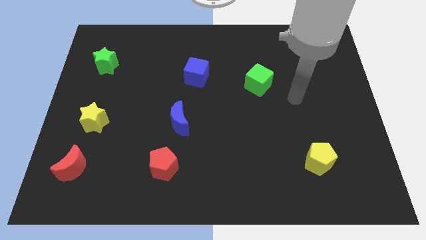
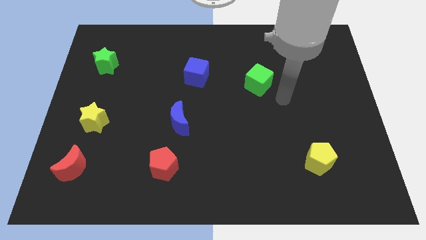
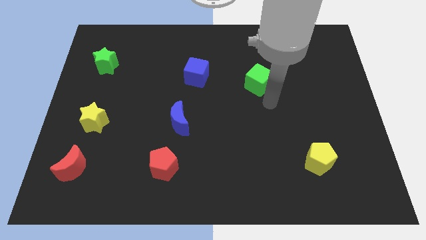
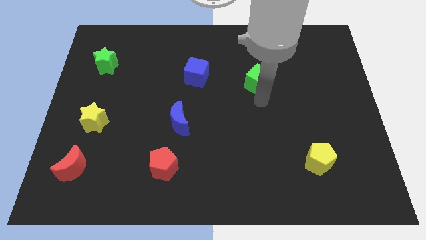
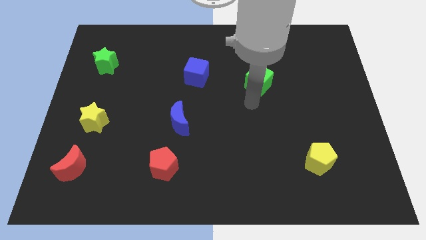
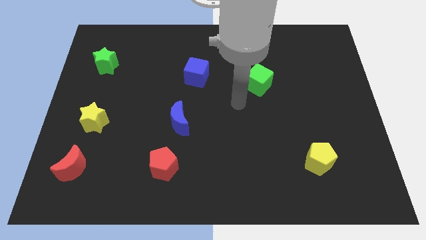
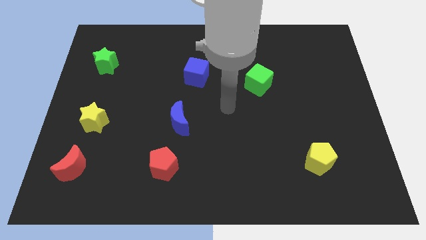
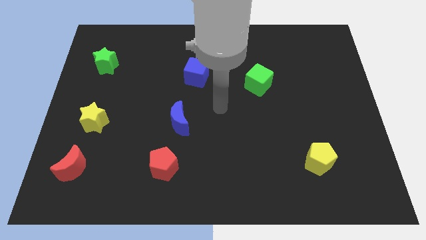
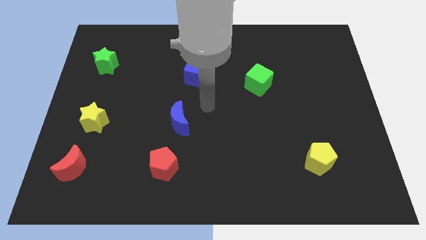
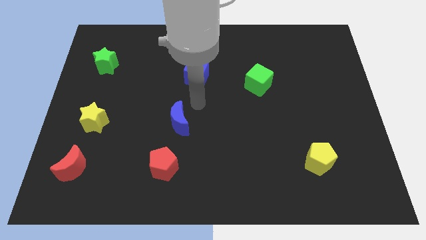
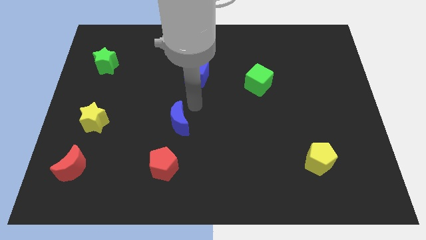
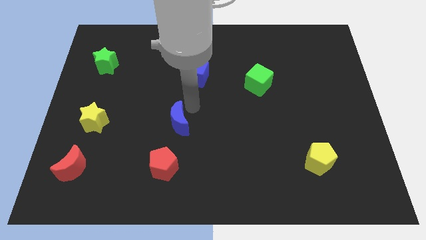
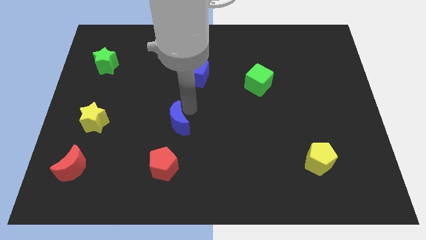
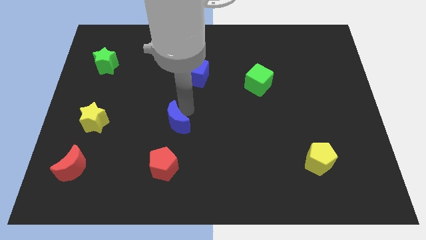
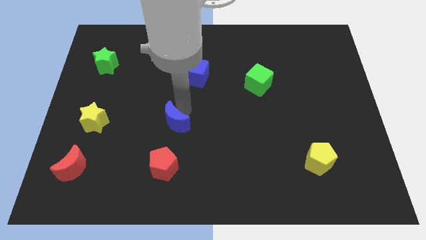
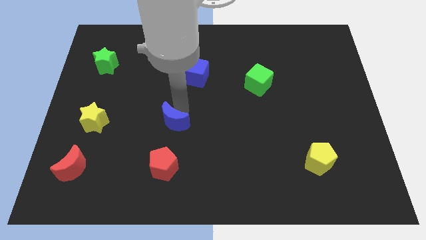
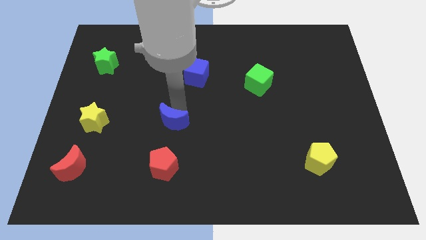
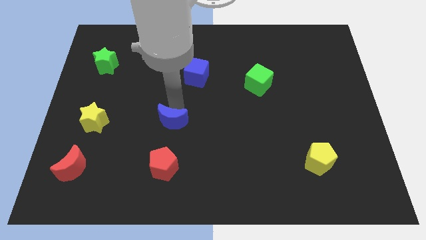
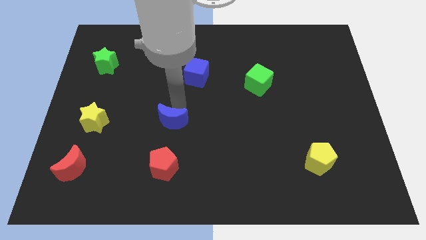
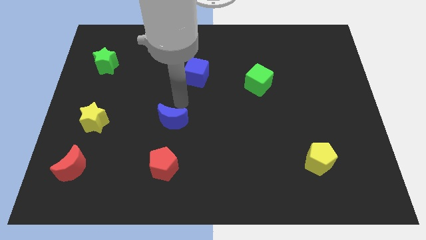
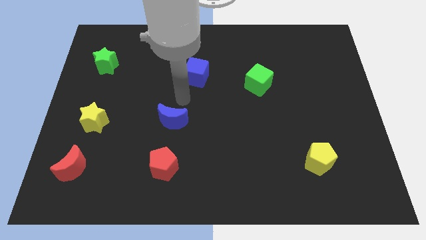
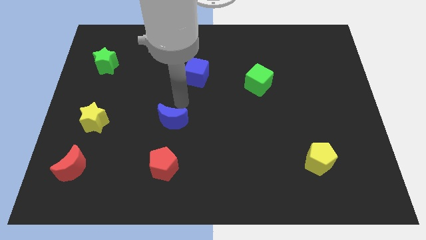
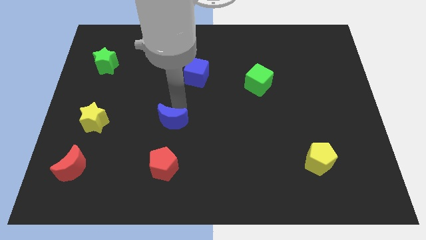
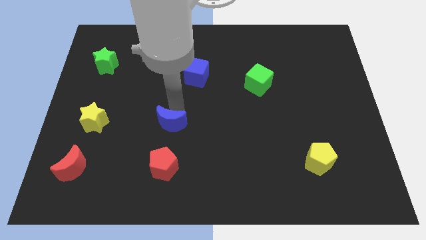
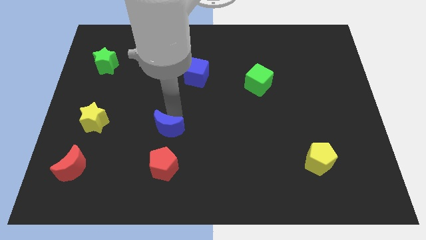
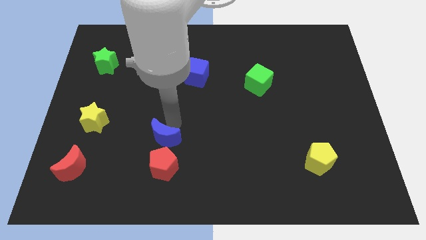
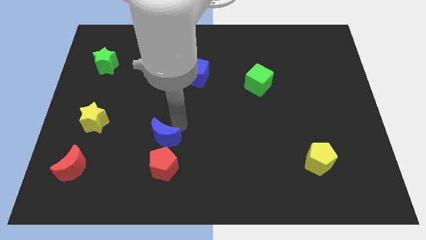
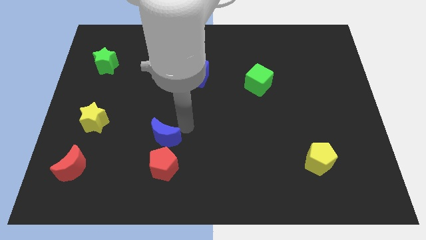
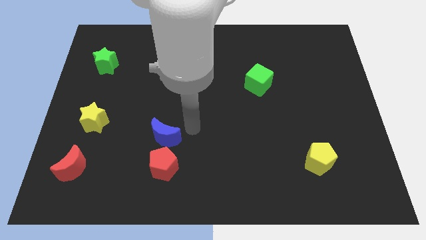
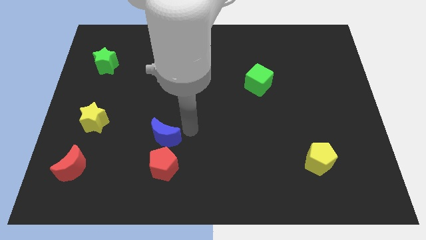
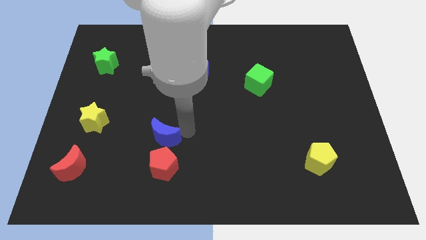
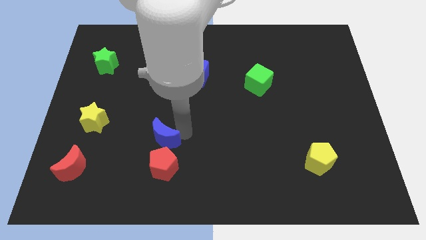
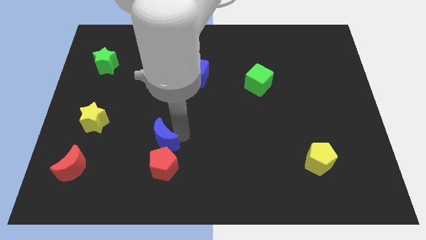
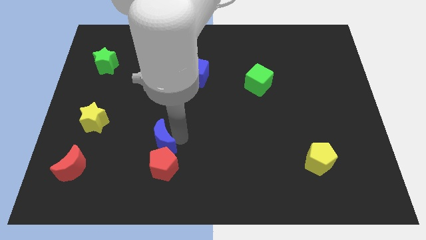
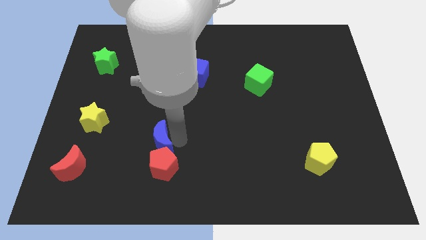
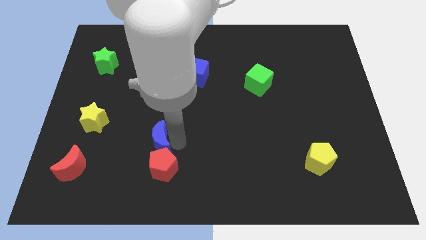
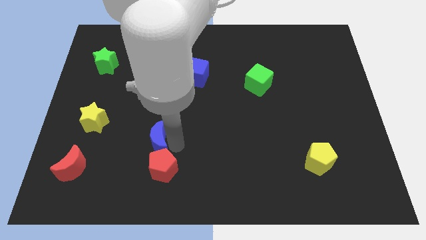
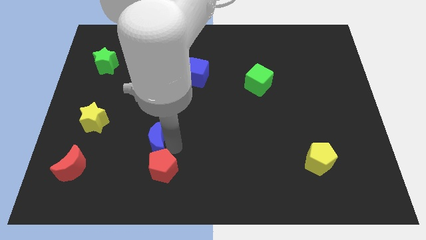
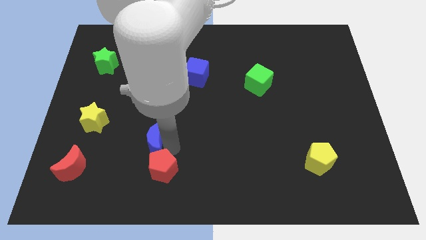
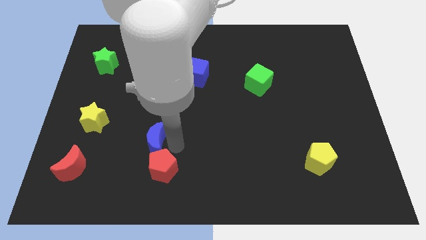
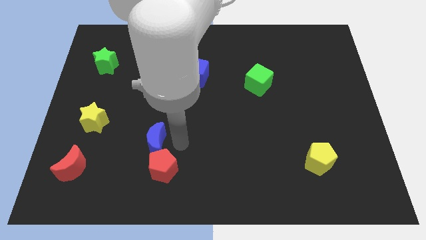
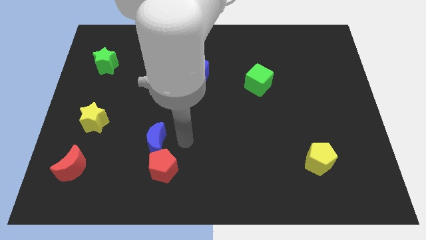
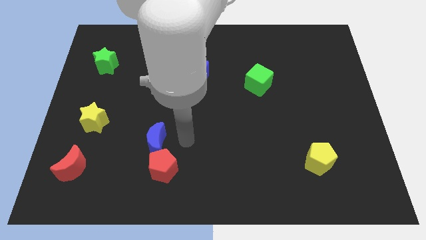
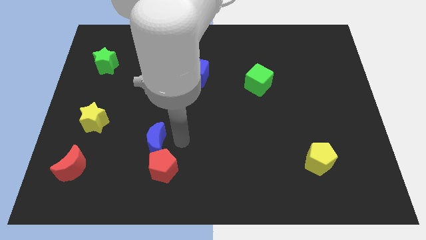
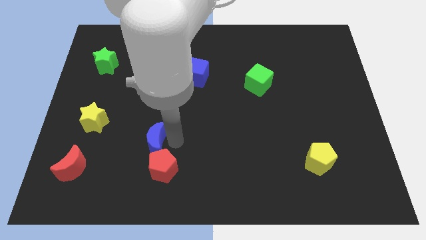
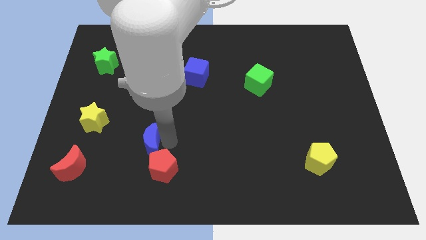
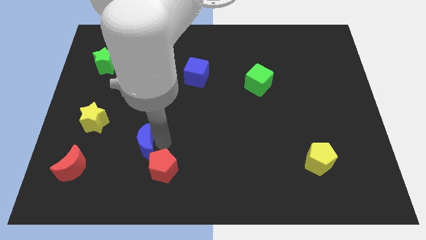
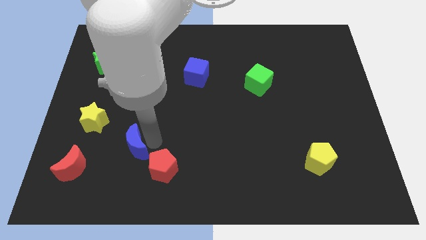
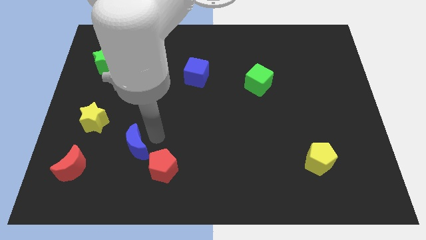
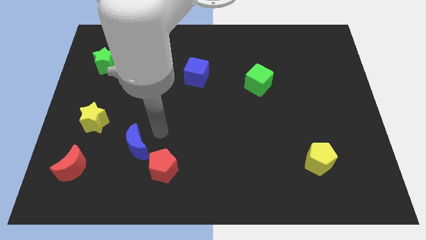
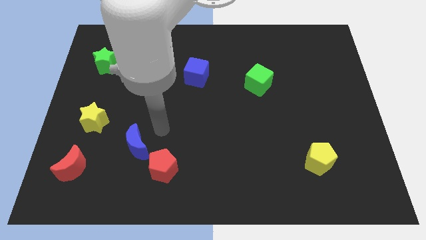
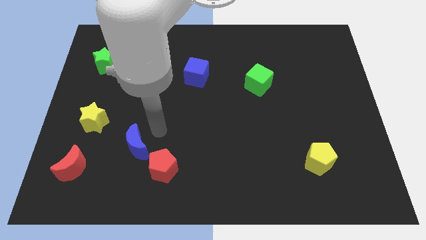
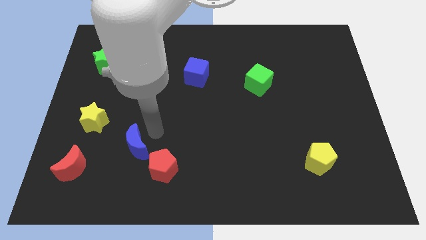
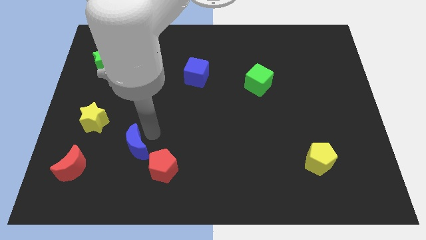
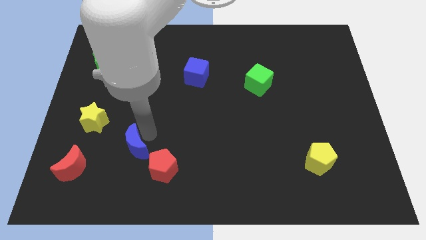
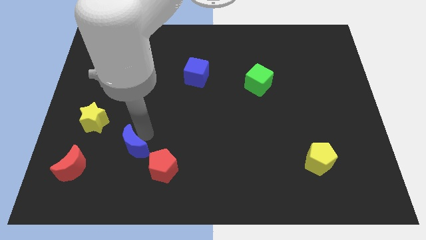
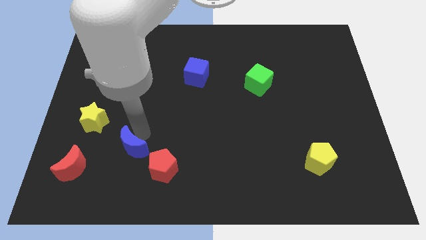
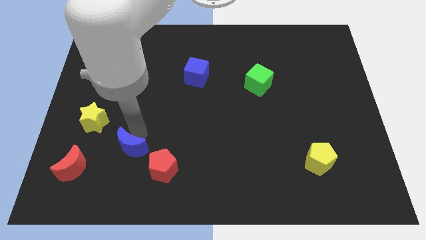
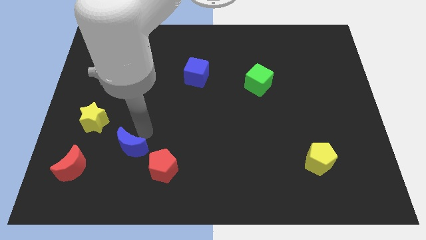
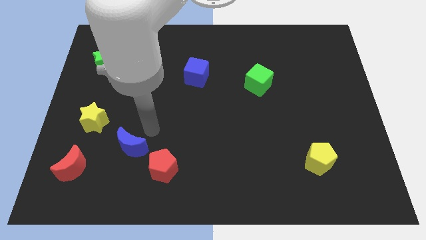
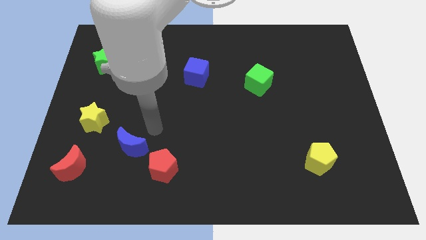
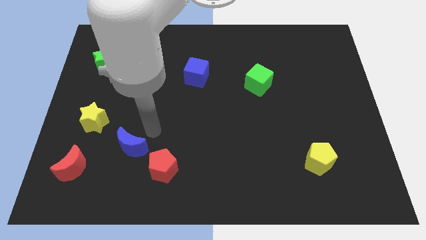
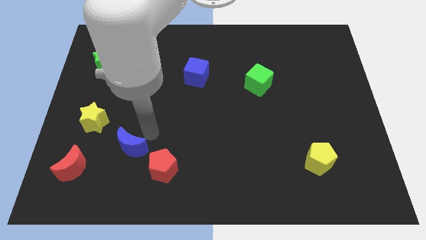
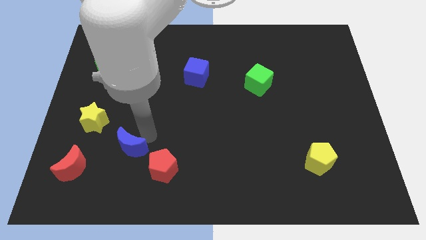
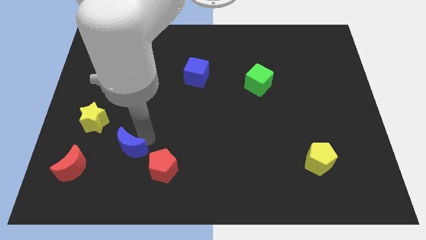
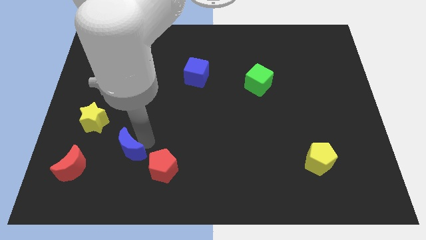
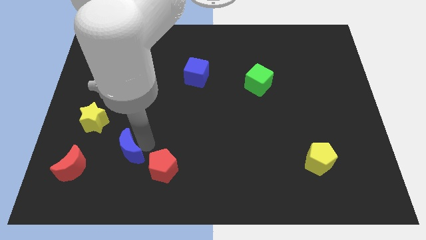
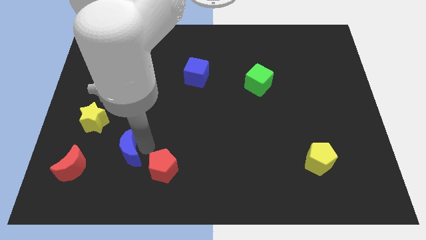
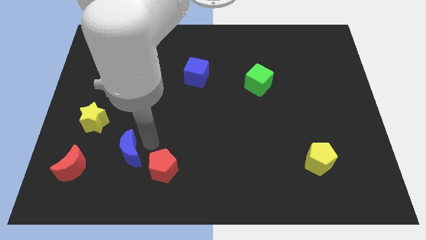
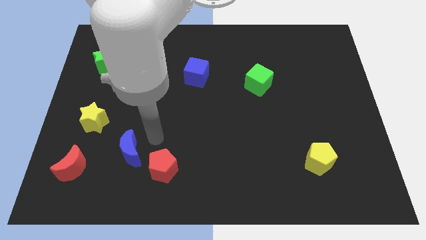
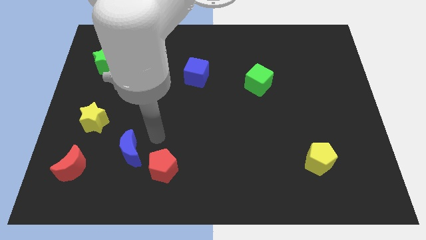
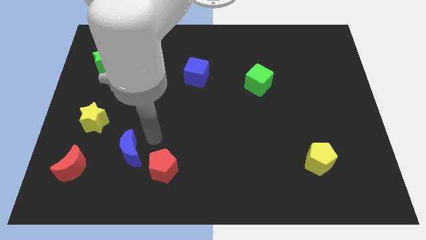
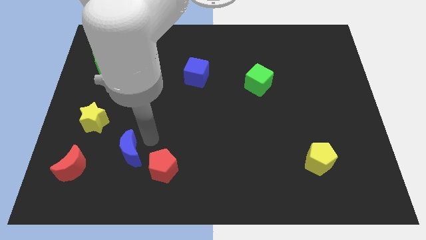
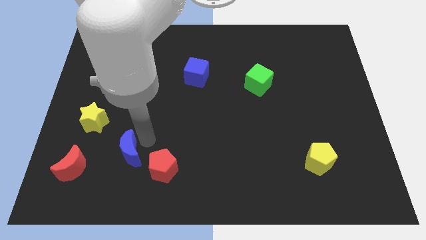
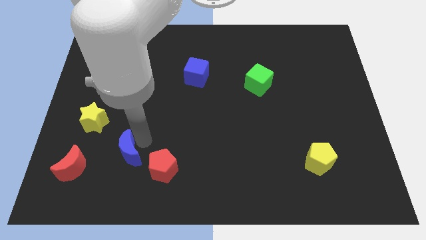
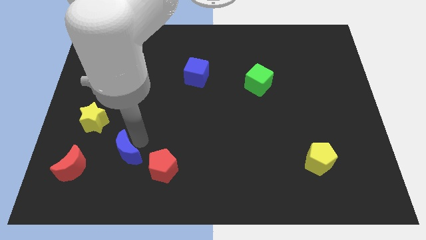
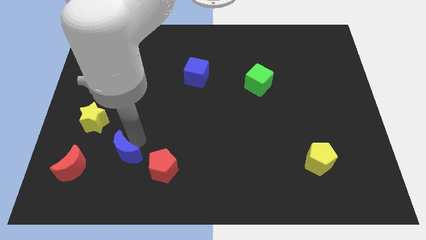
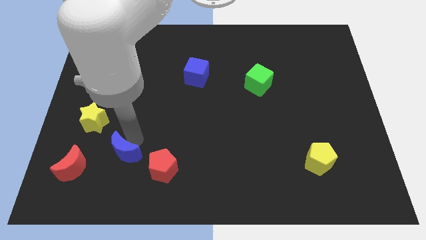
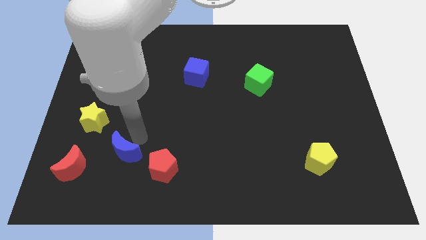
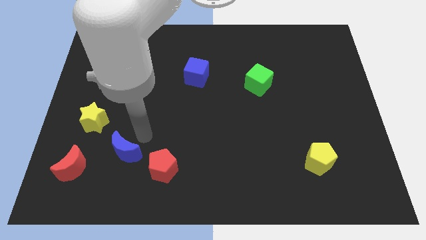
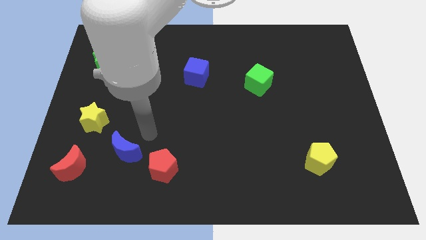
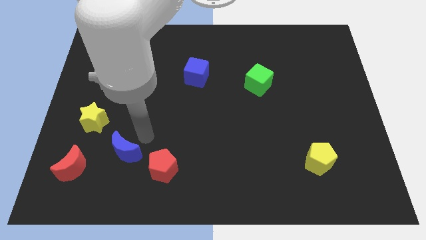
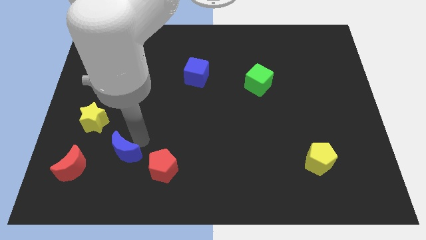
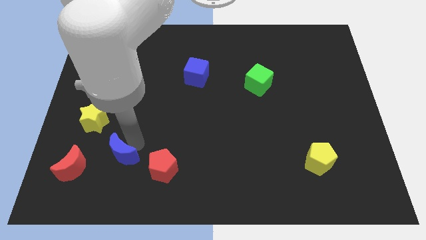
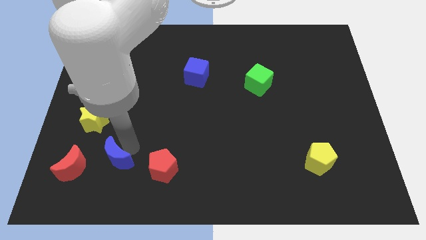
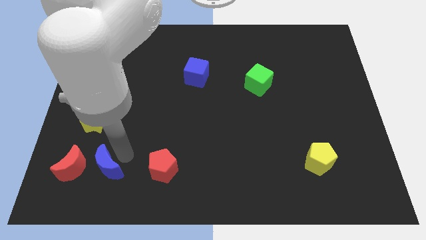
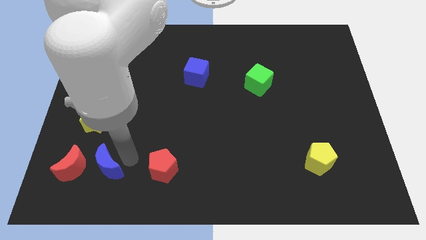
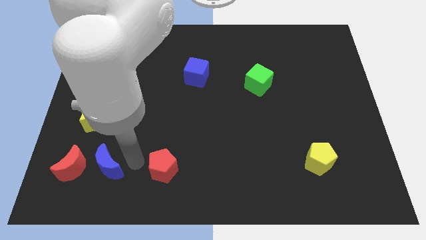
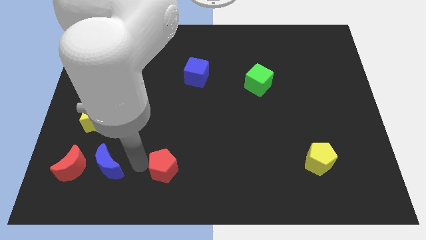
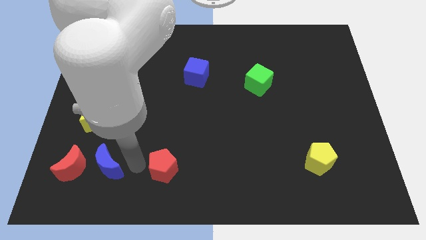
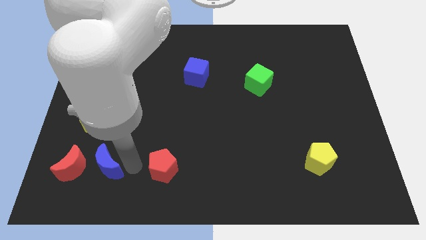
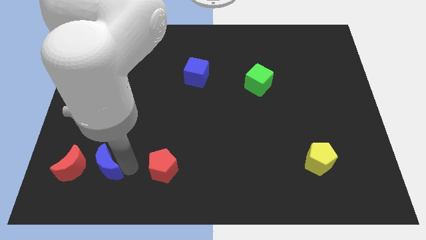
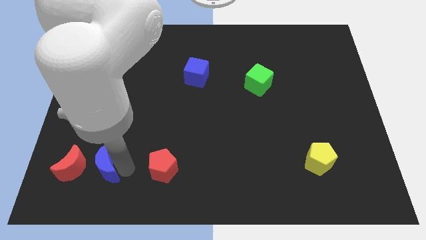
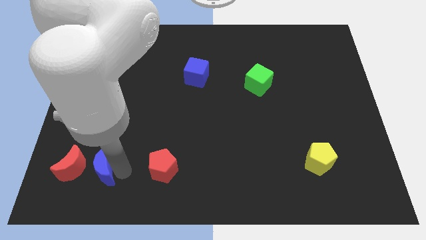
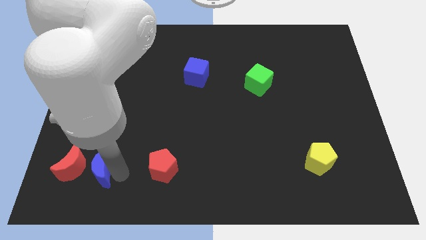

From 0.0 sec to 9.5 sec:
move the blue moon towards the red moon
